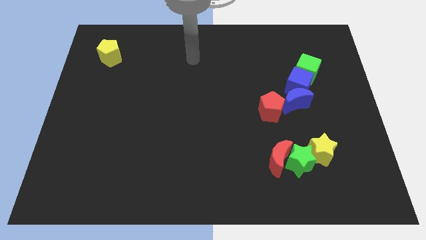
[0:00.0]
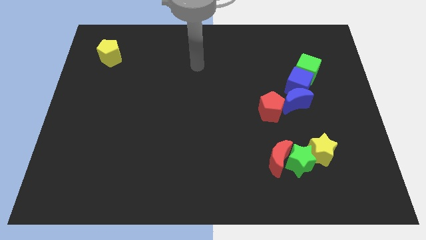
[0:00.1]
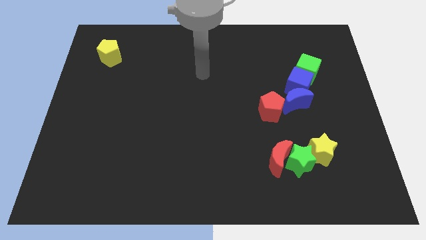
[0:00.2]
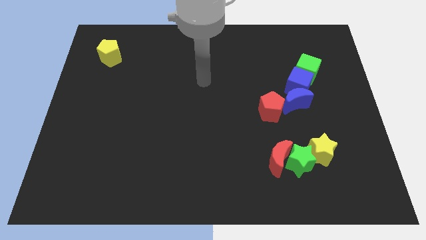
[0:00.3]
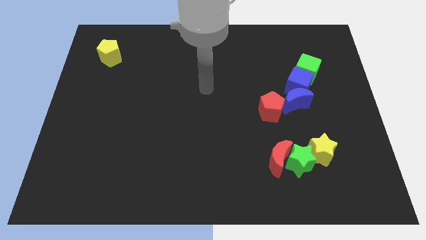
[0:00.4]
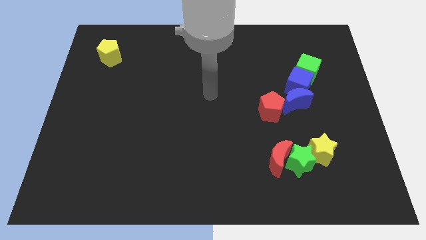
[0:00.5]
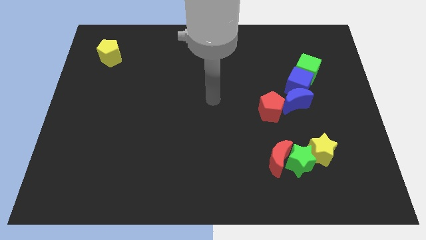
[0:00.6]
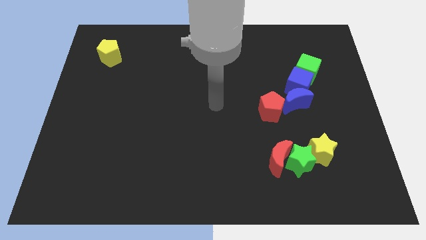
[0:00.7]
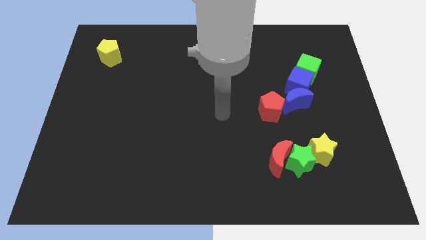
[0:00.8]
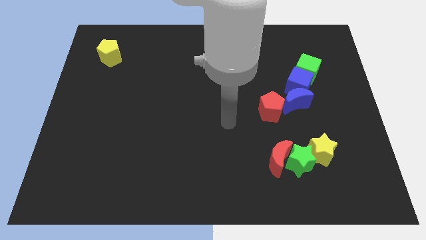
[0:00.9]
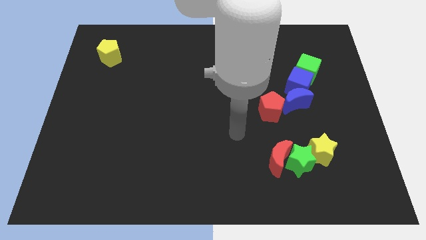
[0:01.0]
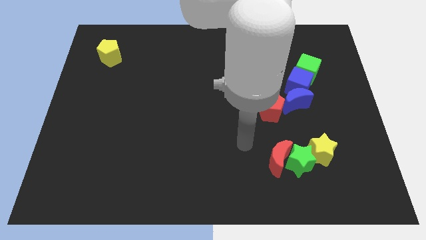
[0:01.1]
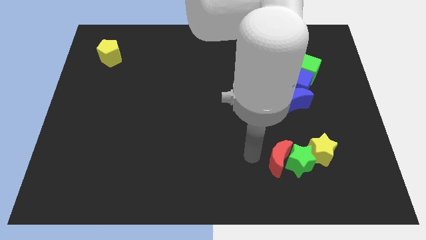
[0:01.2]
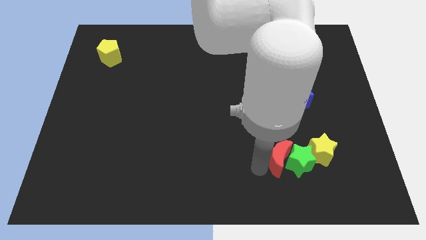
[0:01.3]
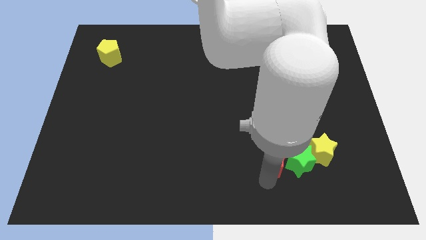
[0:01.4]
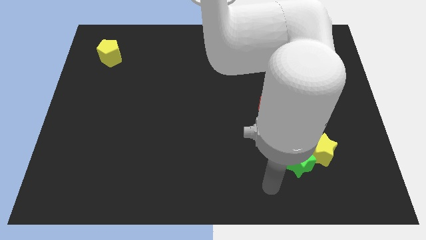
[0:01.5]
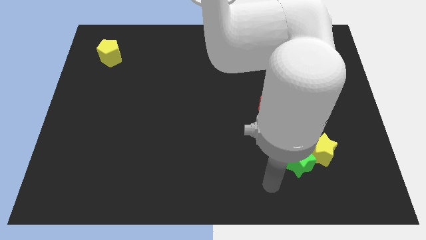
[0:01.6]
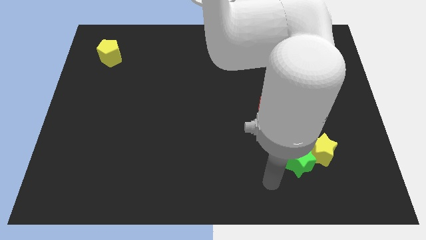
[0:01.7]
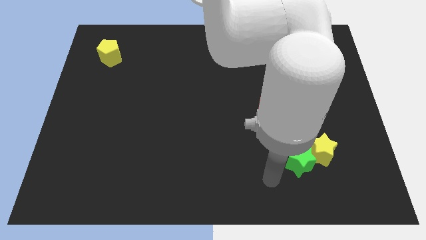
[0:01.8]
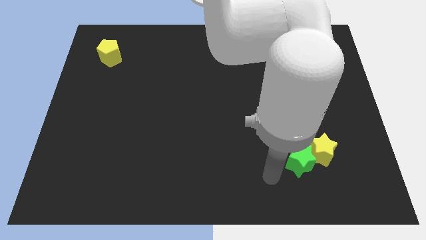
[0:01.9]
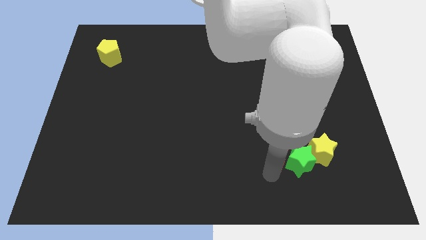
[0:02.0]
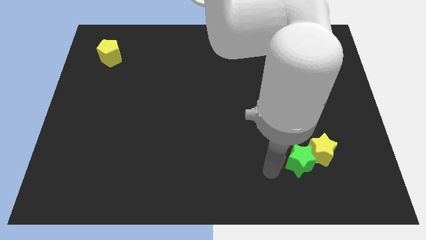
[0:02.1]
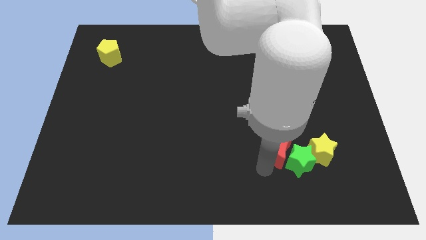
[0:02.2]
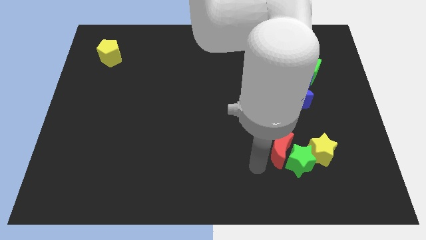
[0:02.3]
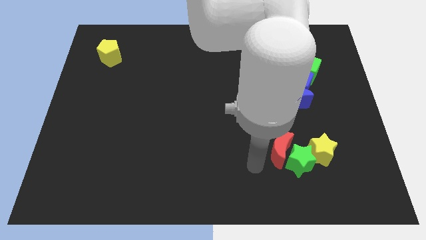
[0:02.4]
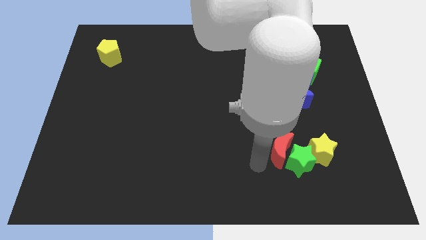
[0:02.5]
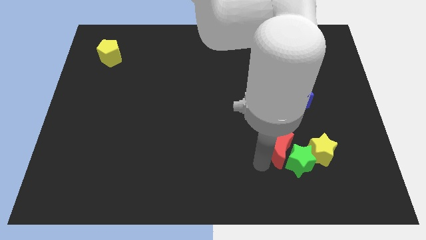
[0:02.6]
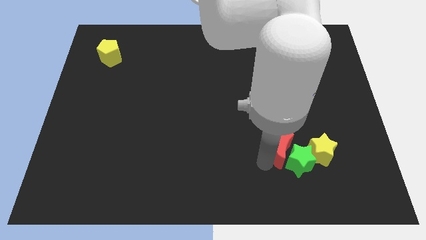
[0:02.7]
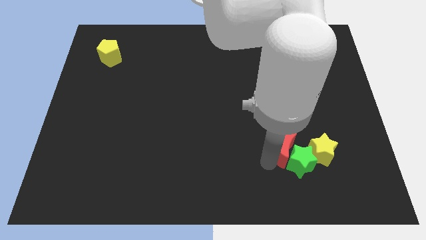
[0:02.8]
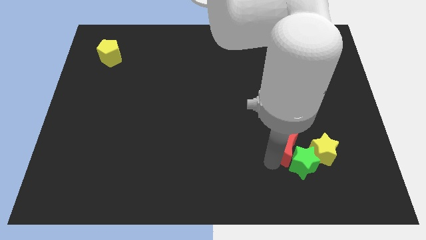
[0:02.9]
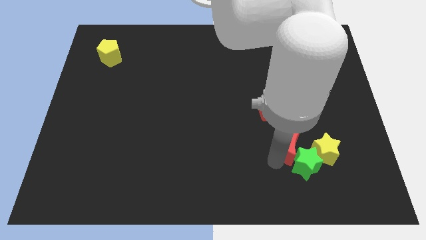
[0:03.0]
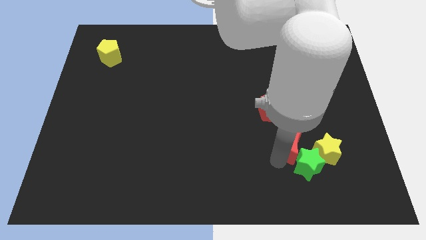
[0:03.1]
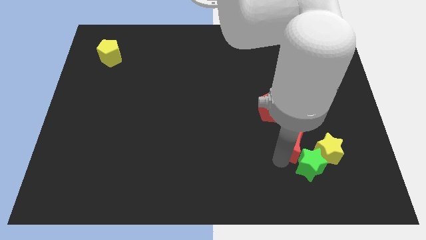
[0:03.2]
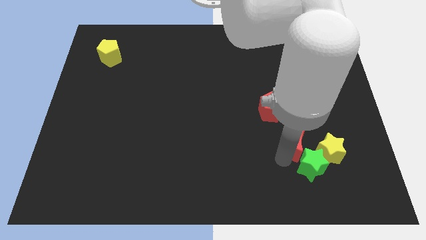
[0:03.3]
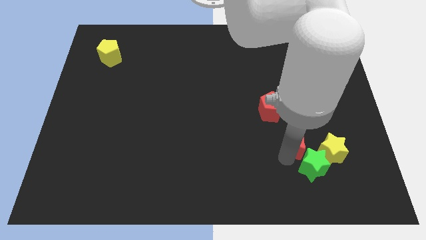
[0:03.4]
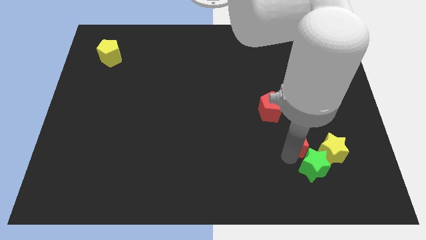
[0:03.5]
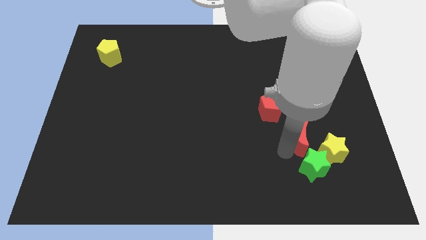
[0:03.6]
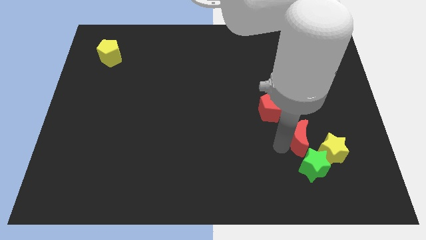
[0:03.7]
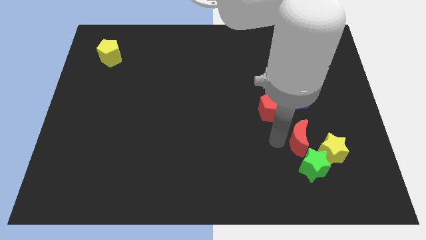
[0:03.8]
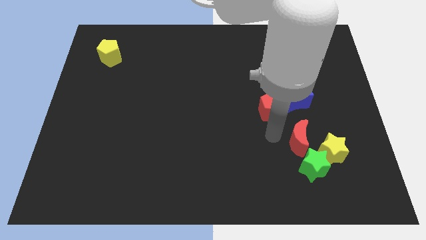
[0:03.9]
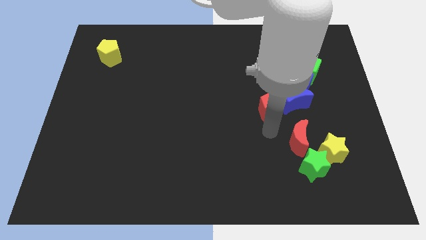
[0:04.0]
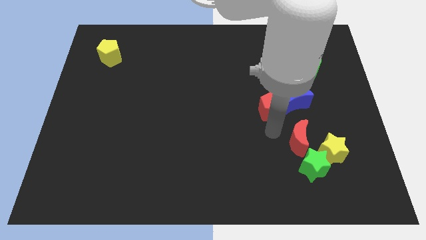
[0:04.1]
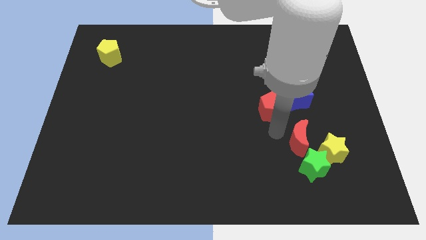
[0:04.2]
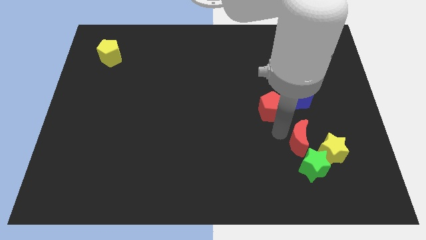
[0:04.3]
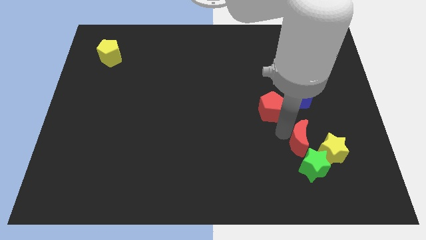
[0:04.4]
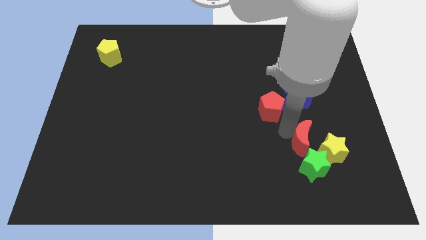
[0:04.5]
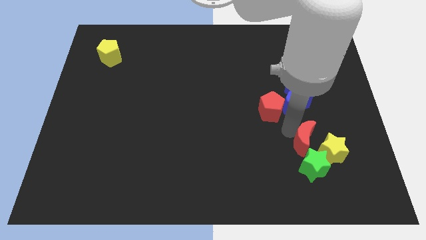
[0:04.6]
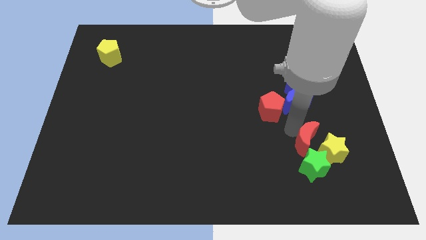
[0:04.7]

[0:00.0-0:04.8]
slide the red moon towards the yellow star

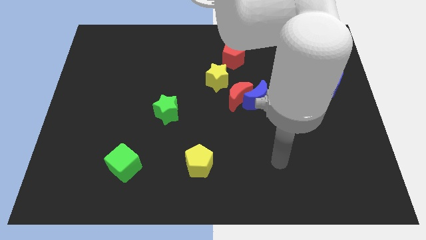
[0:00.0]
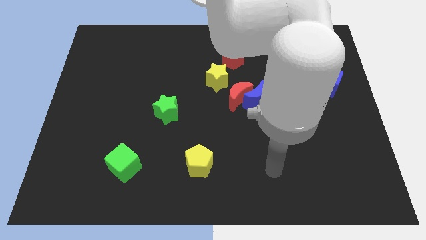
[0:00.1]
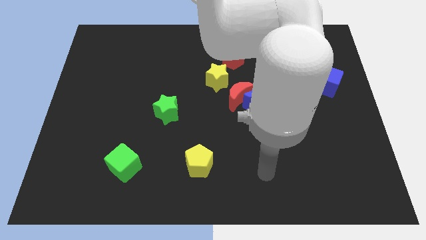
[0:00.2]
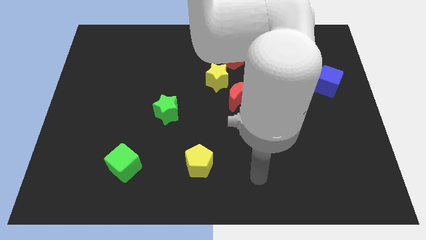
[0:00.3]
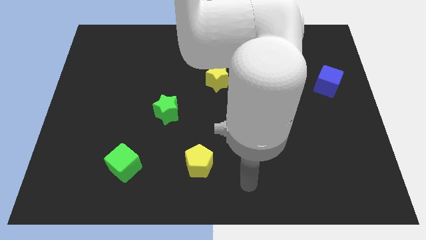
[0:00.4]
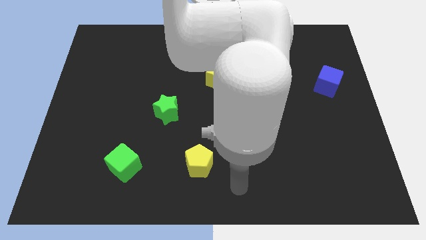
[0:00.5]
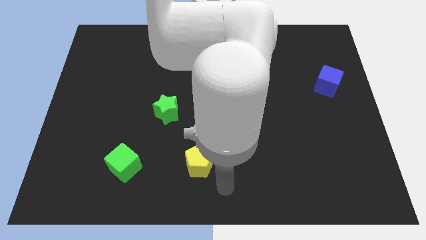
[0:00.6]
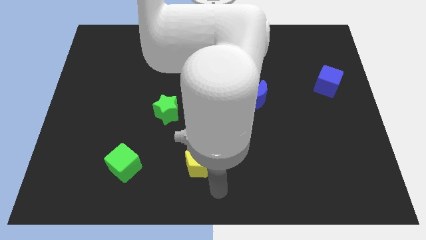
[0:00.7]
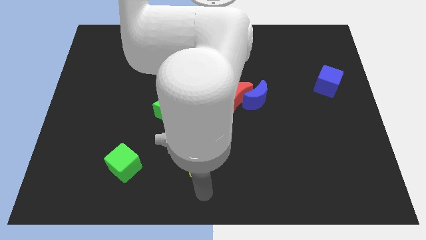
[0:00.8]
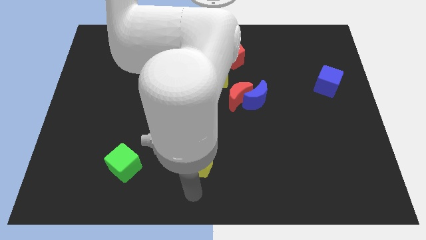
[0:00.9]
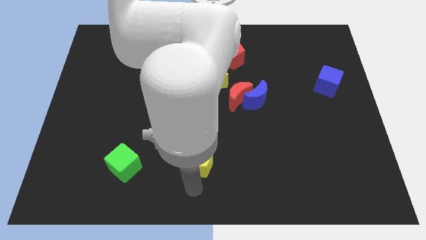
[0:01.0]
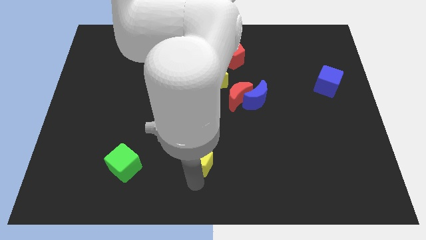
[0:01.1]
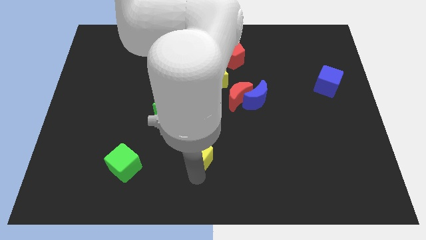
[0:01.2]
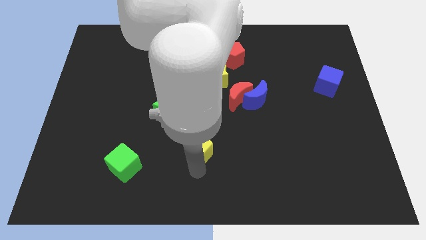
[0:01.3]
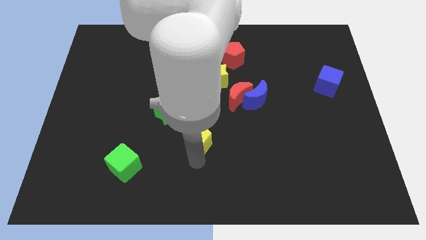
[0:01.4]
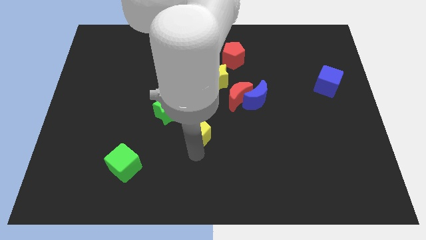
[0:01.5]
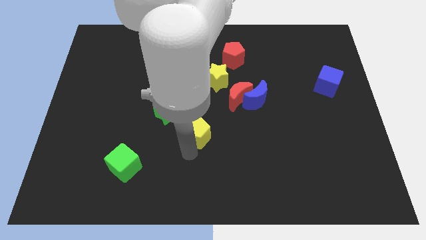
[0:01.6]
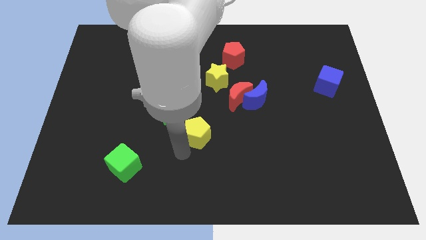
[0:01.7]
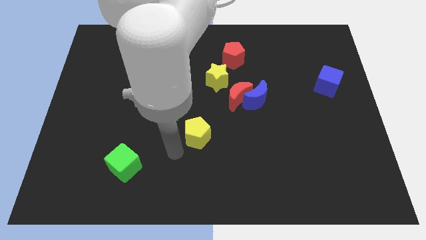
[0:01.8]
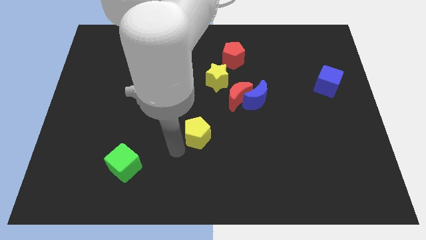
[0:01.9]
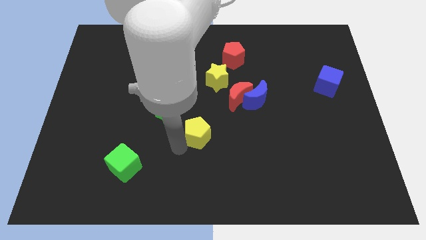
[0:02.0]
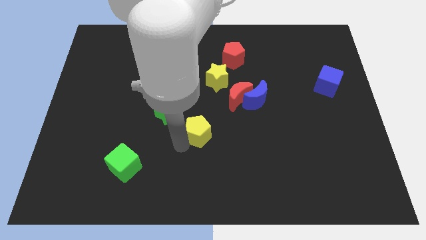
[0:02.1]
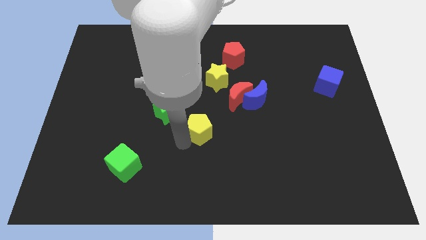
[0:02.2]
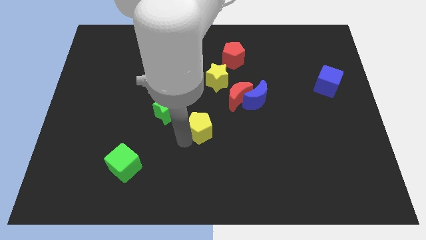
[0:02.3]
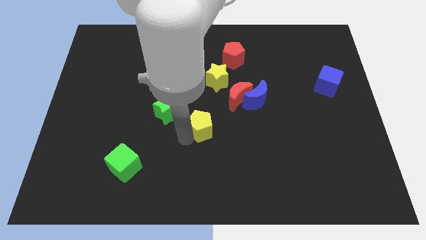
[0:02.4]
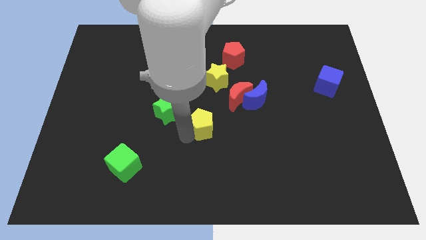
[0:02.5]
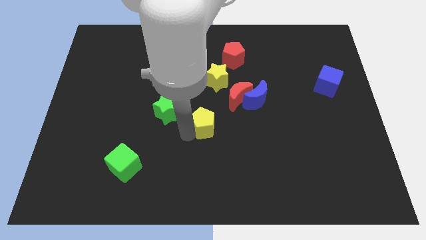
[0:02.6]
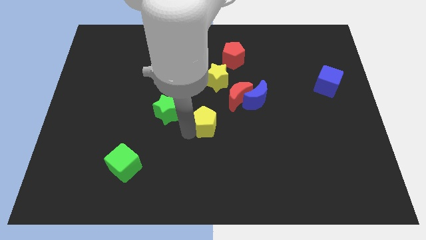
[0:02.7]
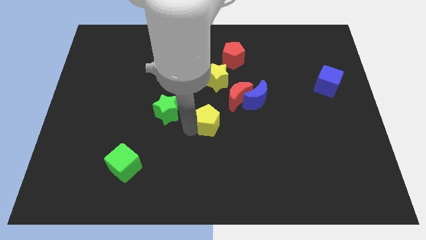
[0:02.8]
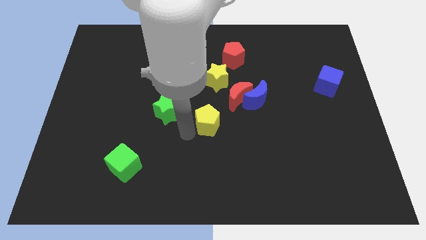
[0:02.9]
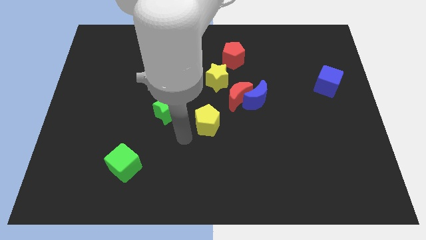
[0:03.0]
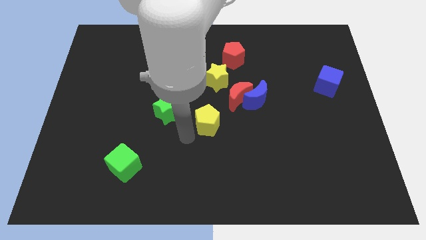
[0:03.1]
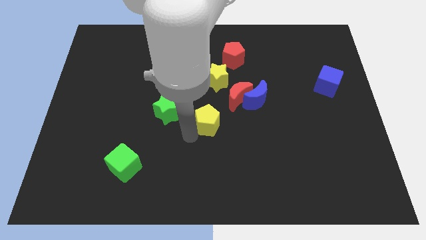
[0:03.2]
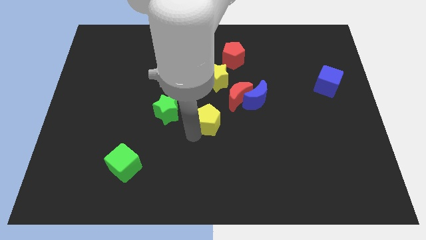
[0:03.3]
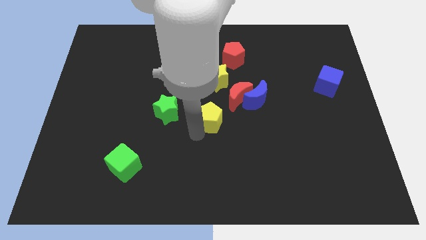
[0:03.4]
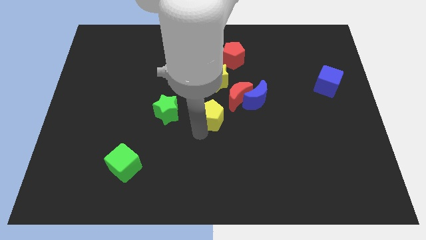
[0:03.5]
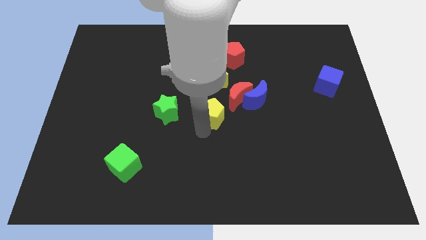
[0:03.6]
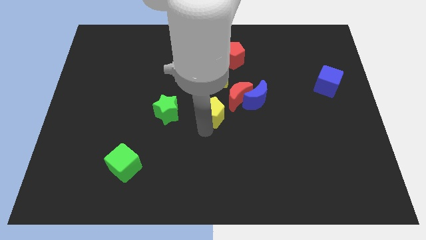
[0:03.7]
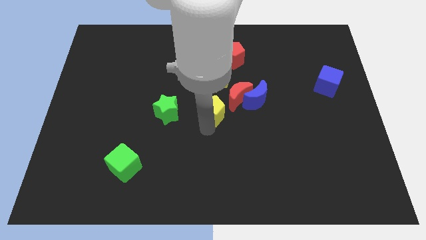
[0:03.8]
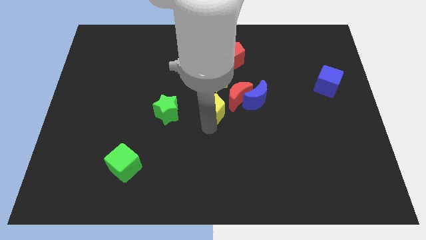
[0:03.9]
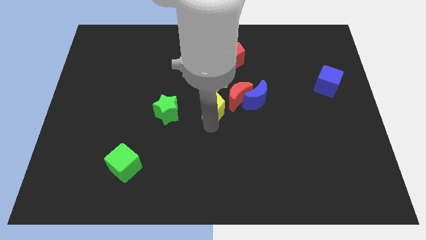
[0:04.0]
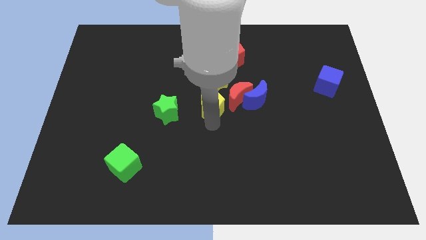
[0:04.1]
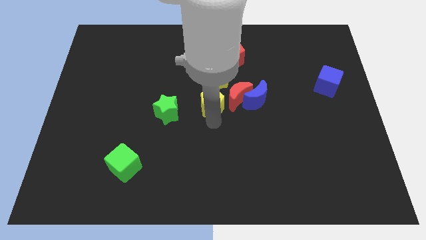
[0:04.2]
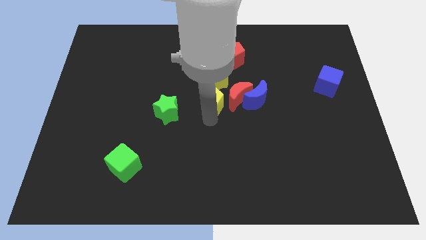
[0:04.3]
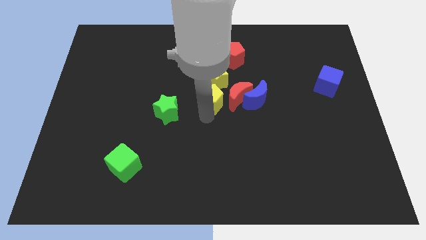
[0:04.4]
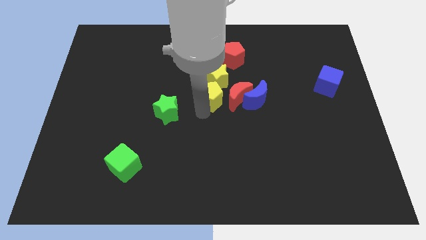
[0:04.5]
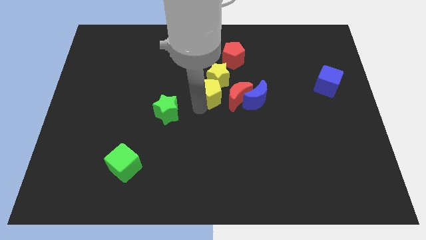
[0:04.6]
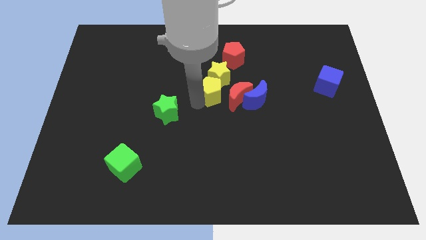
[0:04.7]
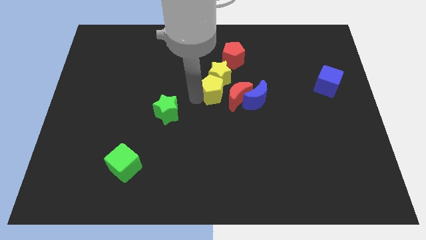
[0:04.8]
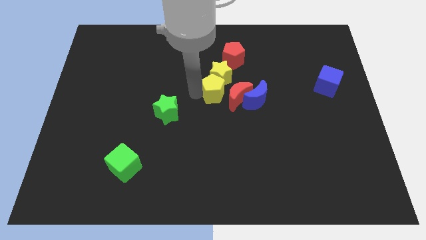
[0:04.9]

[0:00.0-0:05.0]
slide the yellow pentagon towards the red moon
